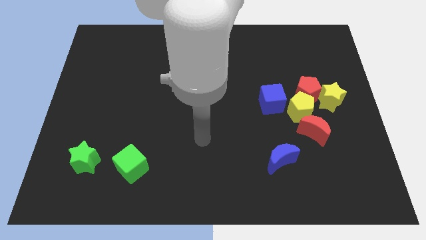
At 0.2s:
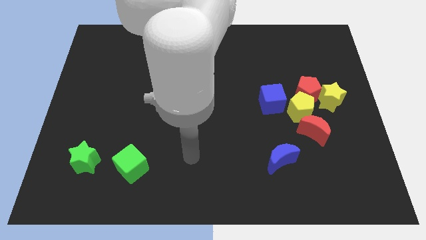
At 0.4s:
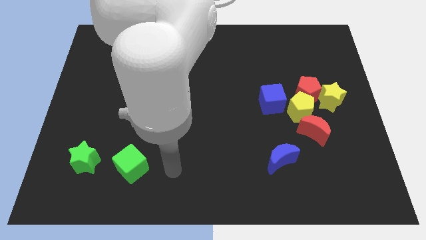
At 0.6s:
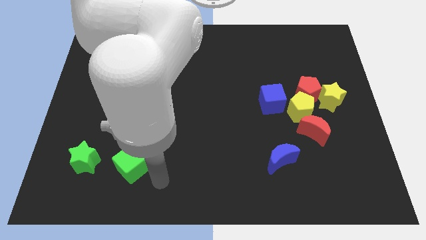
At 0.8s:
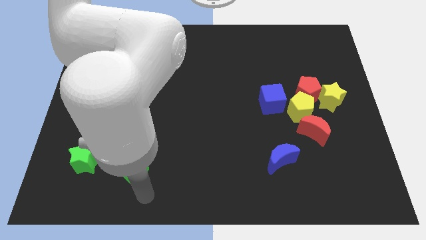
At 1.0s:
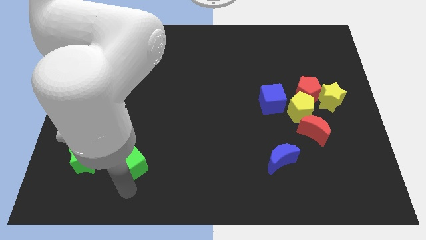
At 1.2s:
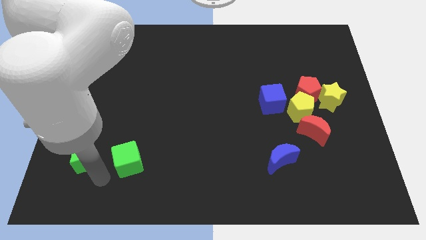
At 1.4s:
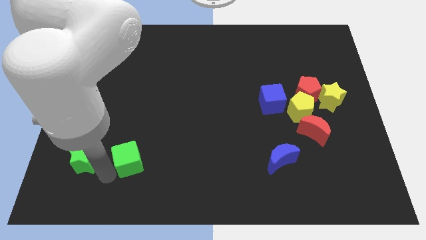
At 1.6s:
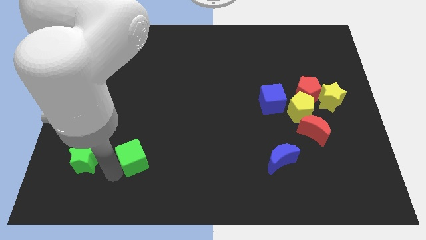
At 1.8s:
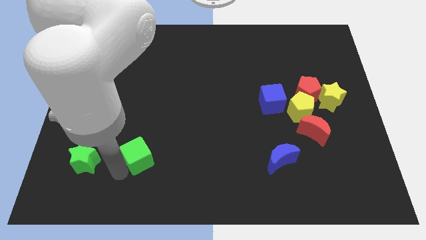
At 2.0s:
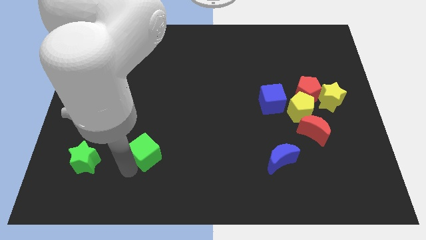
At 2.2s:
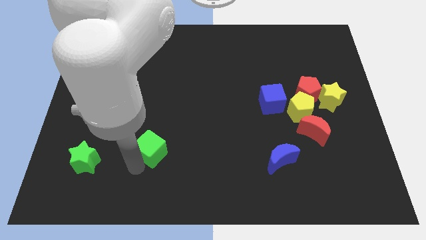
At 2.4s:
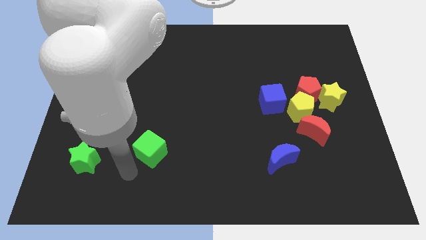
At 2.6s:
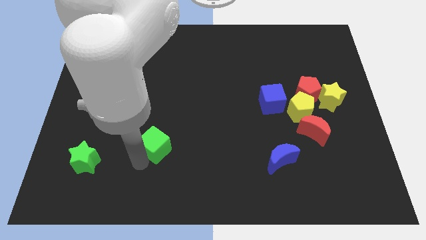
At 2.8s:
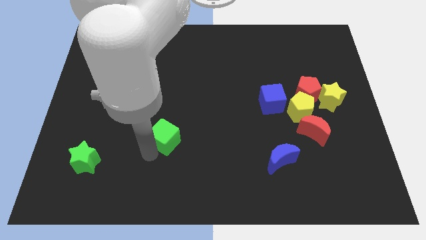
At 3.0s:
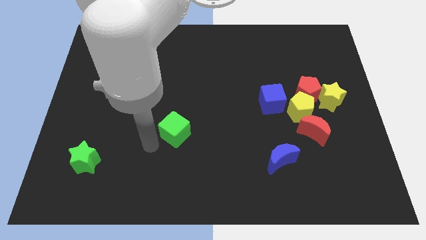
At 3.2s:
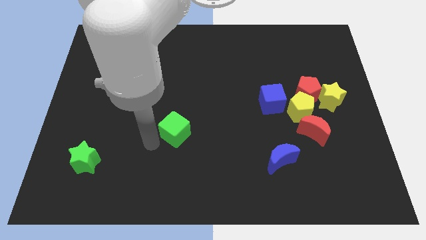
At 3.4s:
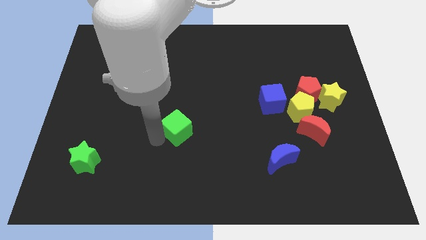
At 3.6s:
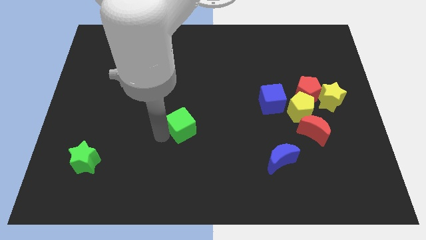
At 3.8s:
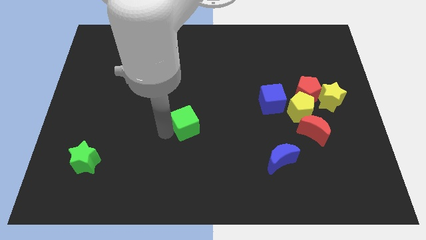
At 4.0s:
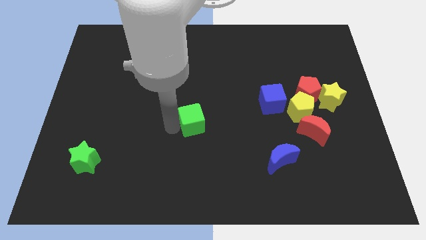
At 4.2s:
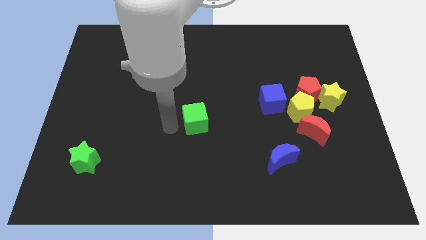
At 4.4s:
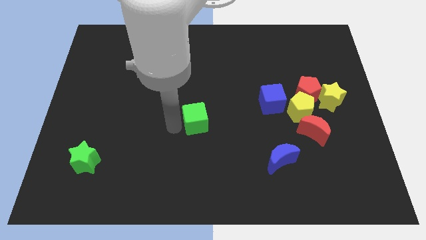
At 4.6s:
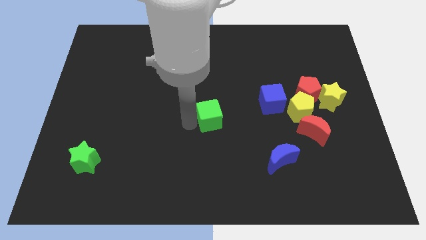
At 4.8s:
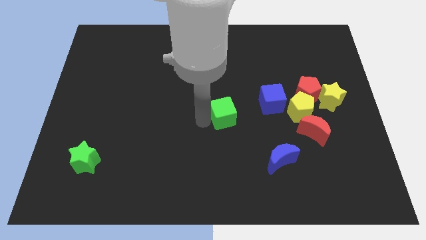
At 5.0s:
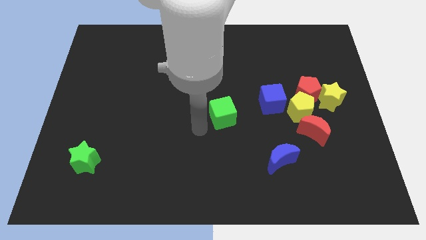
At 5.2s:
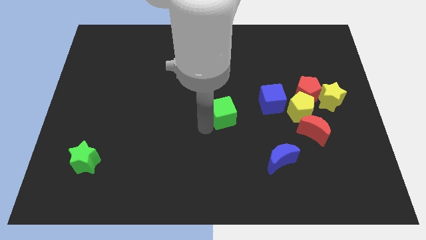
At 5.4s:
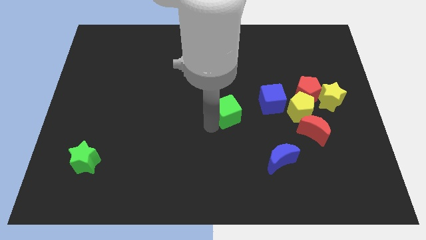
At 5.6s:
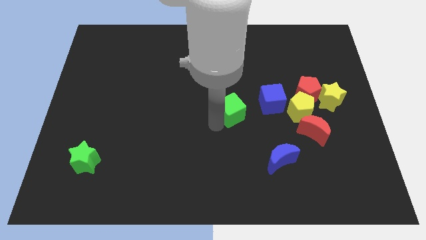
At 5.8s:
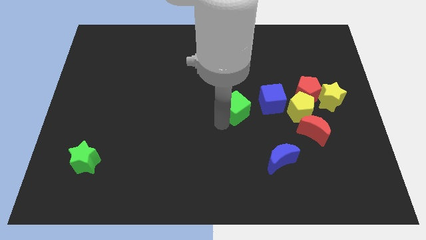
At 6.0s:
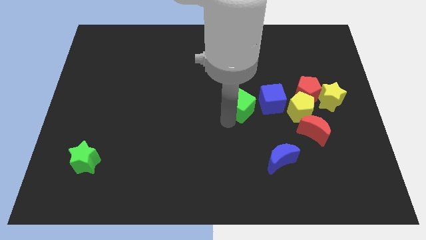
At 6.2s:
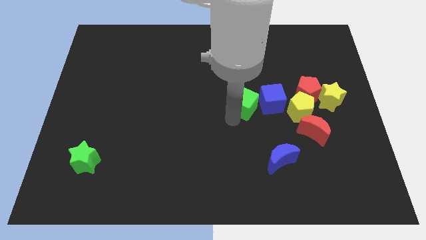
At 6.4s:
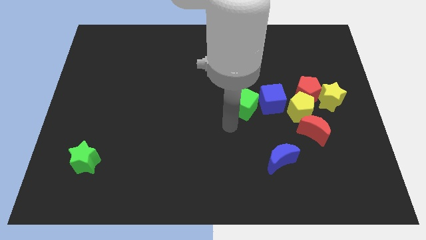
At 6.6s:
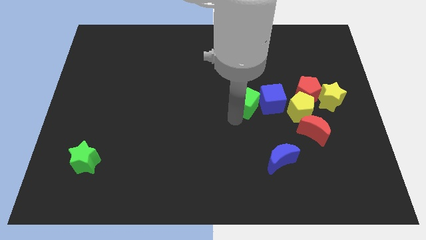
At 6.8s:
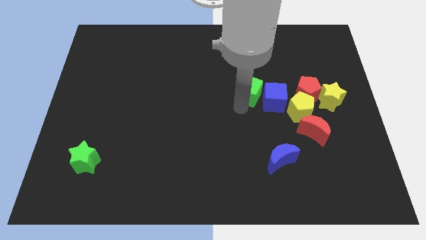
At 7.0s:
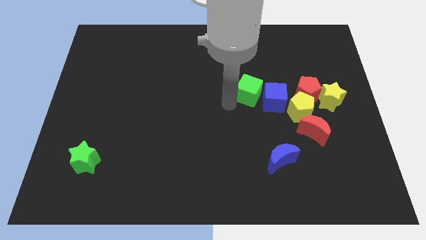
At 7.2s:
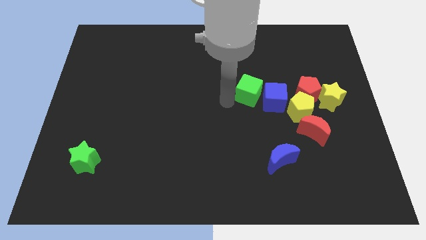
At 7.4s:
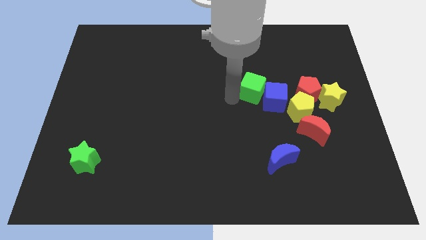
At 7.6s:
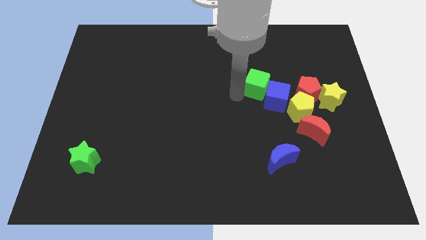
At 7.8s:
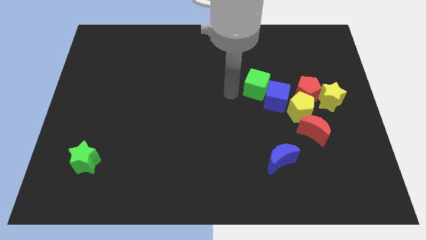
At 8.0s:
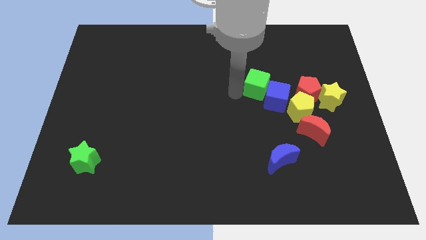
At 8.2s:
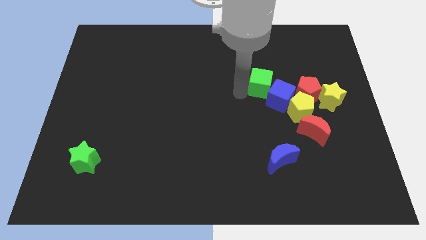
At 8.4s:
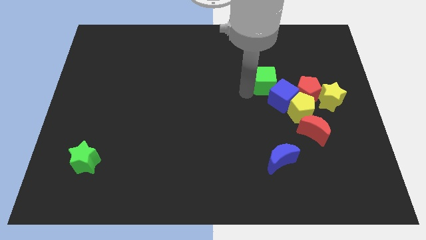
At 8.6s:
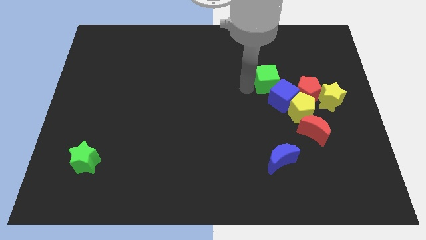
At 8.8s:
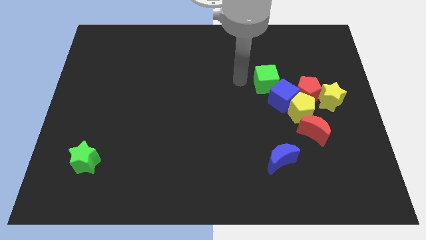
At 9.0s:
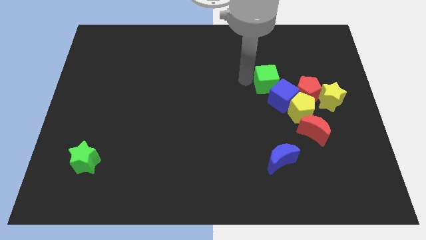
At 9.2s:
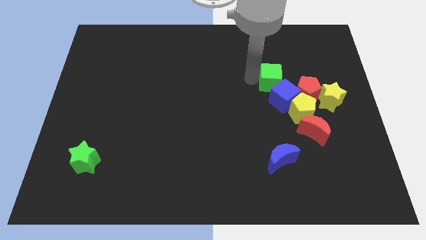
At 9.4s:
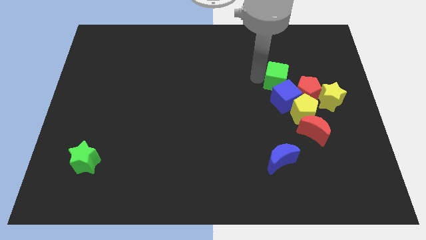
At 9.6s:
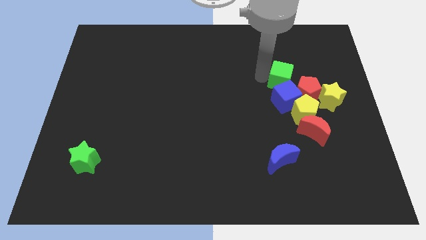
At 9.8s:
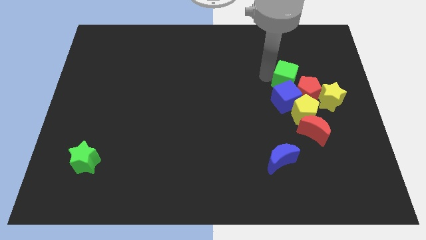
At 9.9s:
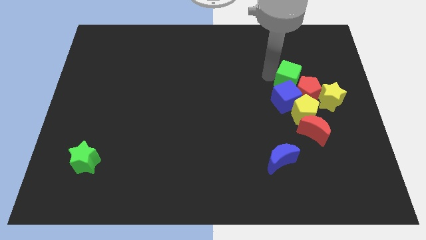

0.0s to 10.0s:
put the green cube towards the red pentagon

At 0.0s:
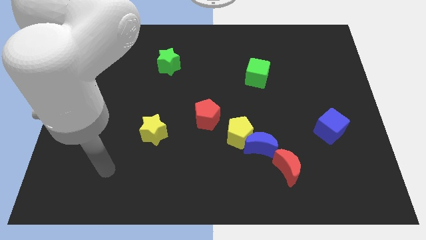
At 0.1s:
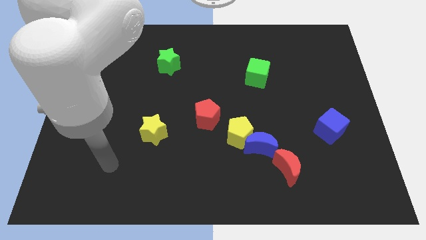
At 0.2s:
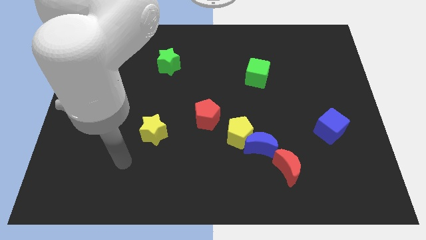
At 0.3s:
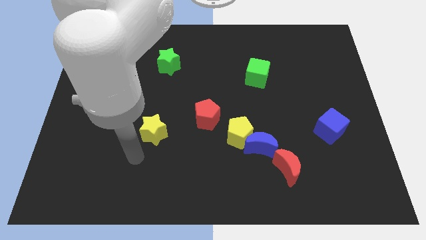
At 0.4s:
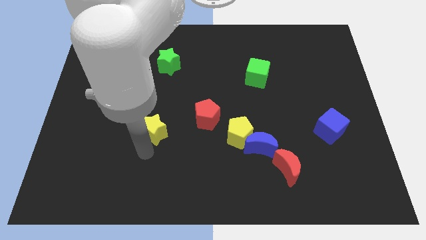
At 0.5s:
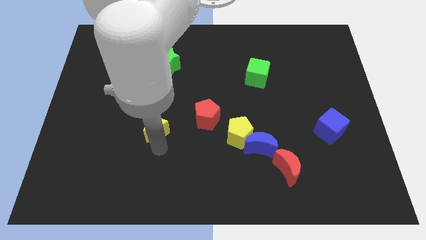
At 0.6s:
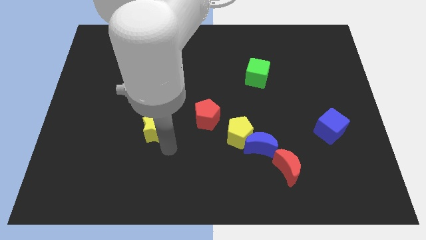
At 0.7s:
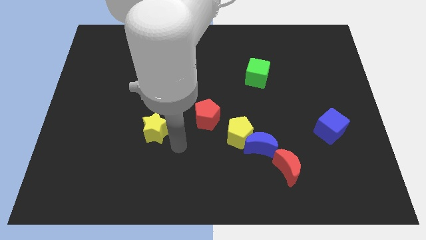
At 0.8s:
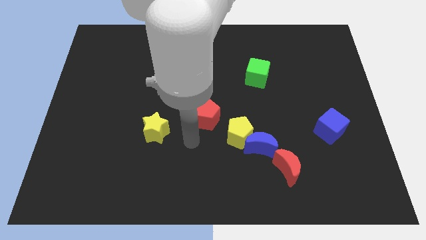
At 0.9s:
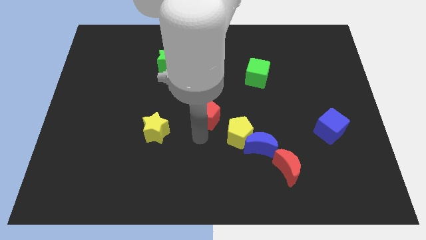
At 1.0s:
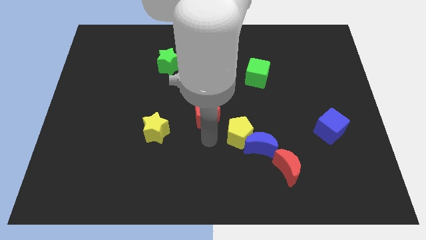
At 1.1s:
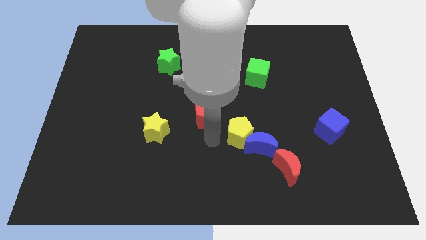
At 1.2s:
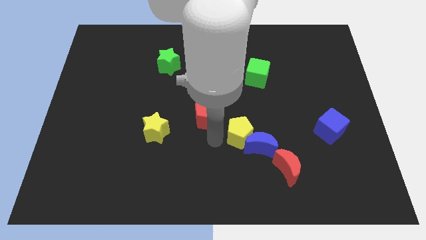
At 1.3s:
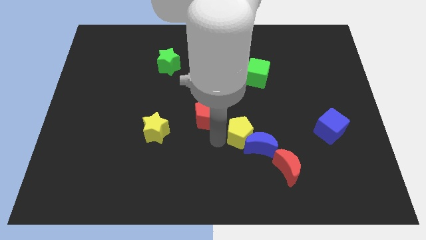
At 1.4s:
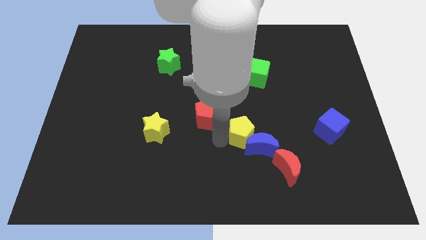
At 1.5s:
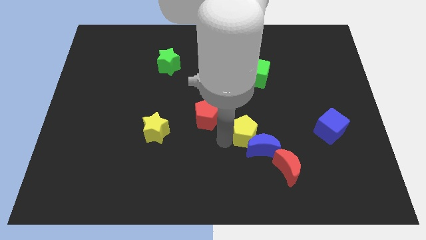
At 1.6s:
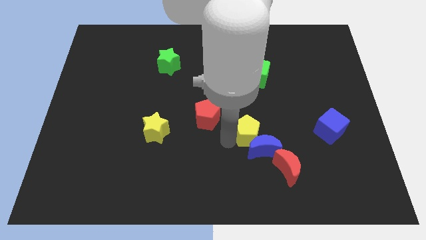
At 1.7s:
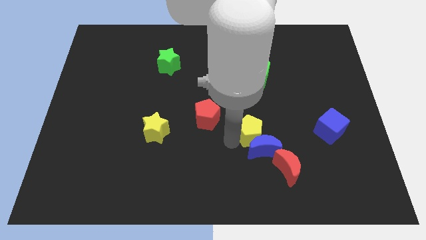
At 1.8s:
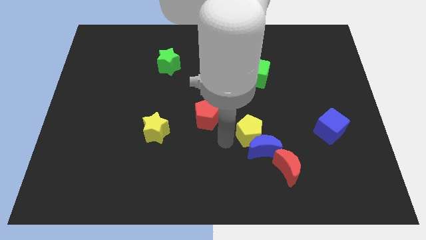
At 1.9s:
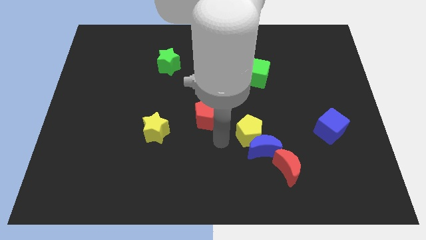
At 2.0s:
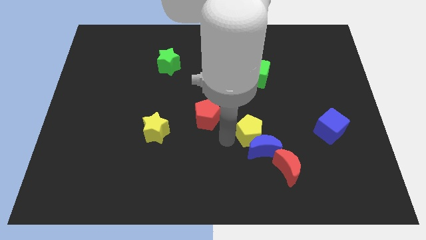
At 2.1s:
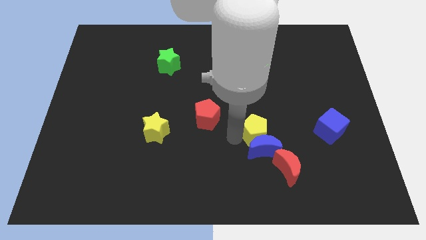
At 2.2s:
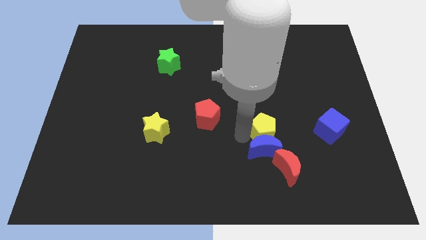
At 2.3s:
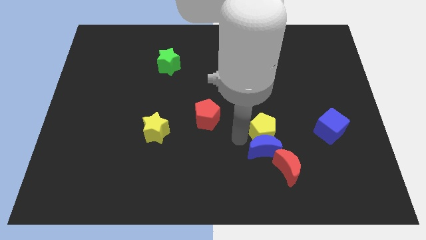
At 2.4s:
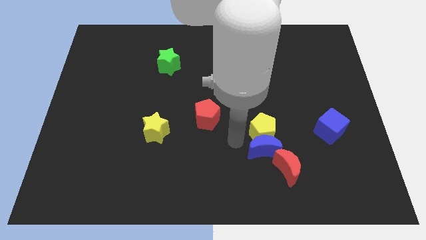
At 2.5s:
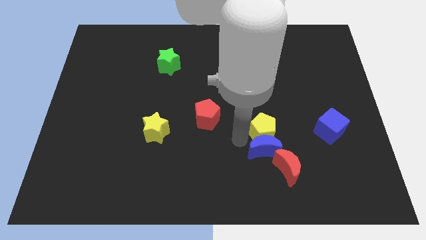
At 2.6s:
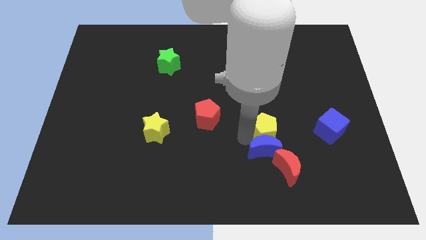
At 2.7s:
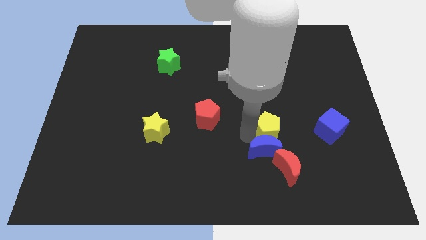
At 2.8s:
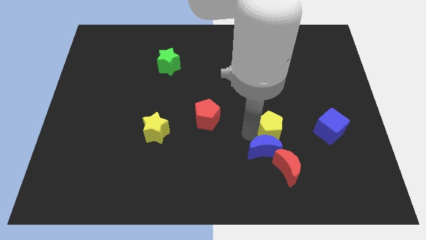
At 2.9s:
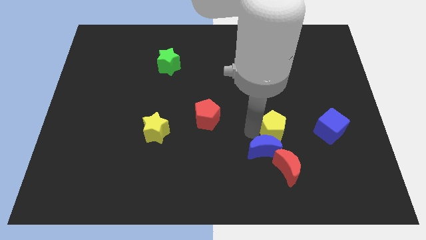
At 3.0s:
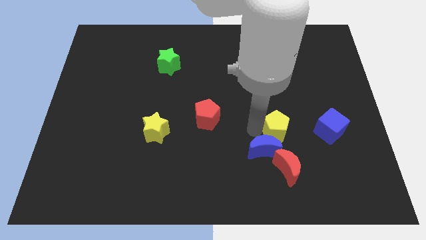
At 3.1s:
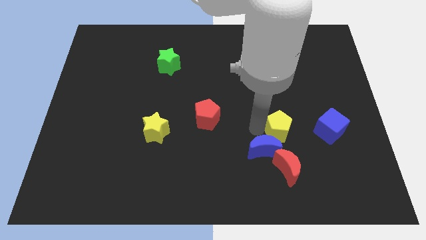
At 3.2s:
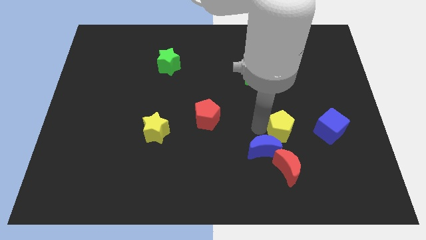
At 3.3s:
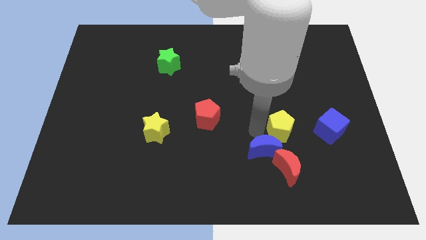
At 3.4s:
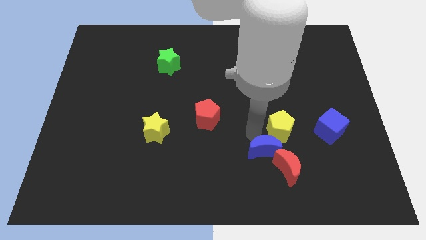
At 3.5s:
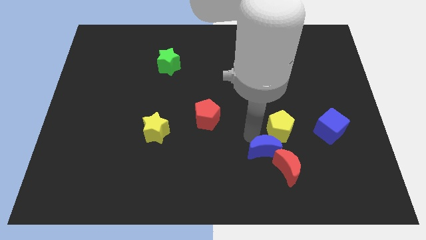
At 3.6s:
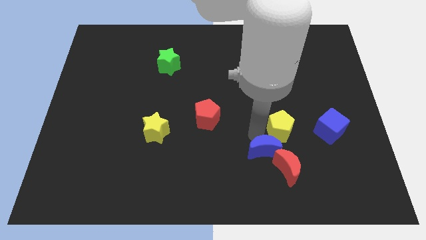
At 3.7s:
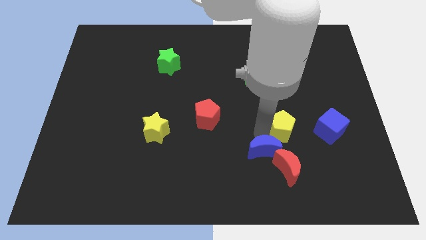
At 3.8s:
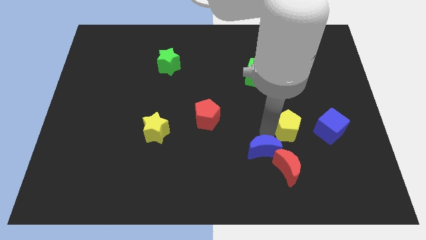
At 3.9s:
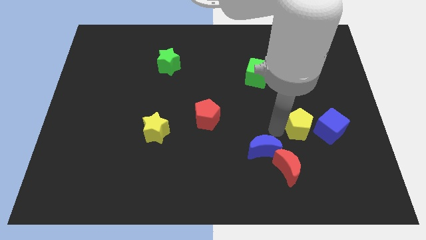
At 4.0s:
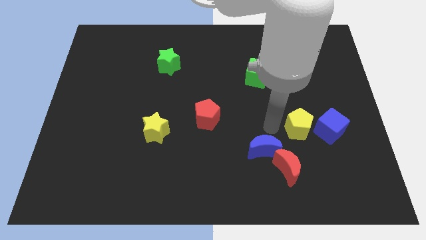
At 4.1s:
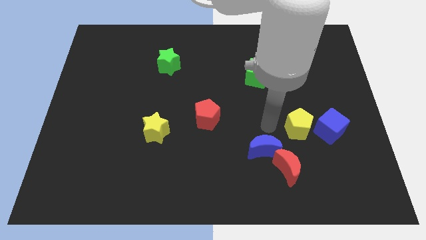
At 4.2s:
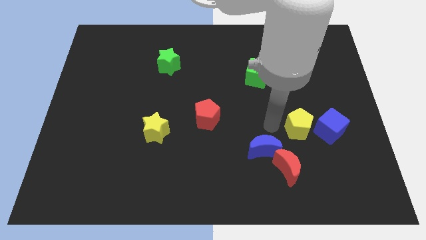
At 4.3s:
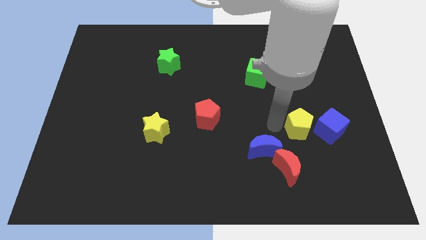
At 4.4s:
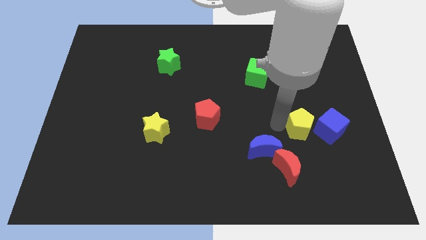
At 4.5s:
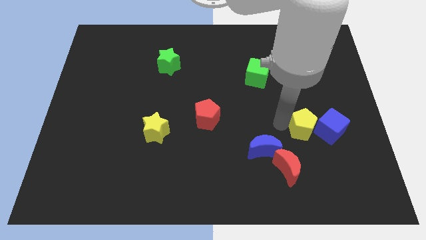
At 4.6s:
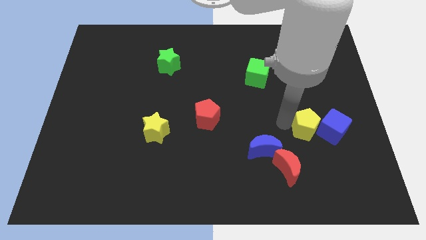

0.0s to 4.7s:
slide the yellow pentagon towards the blue cube
